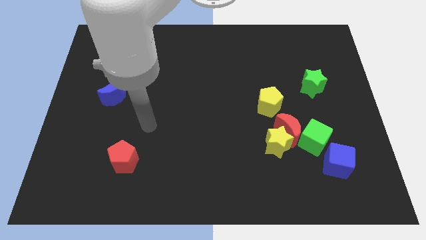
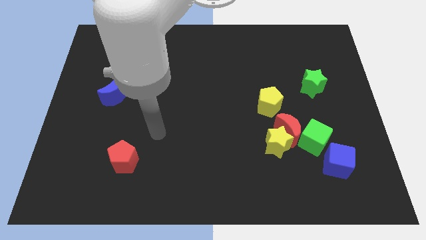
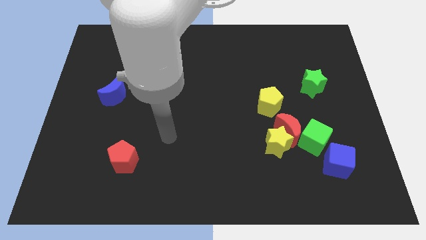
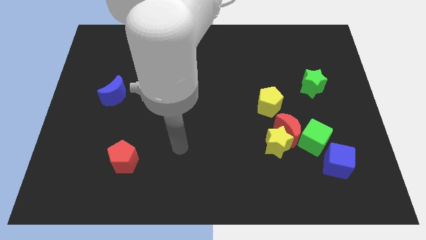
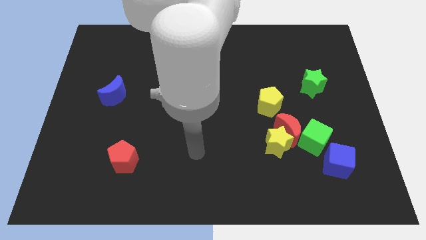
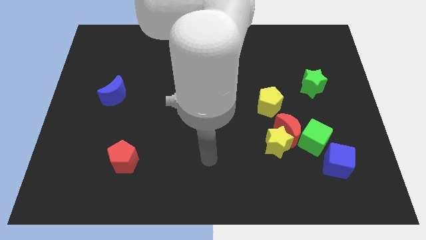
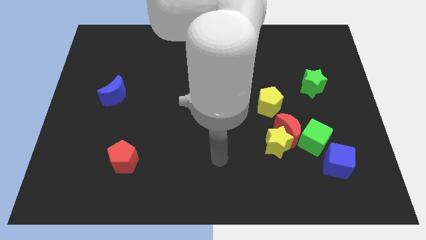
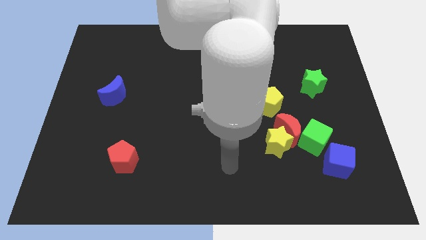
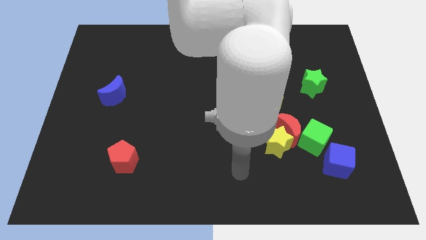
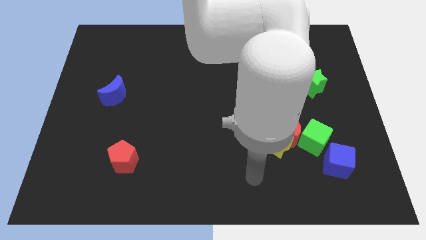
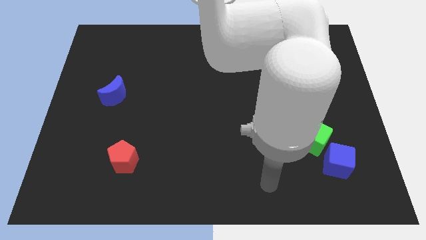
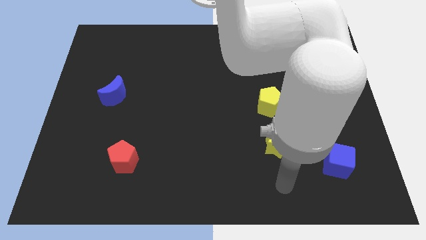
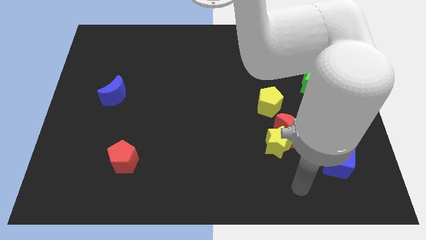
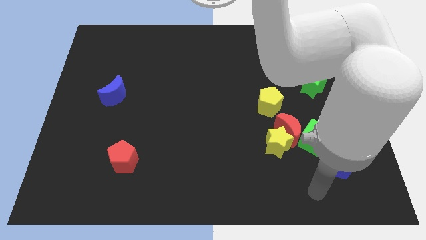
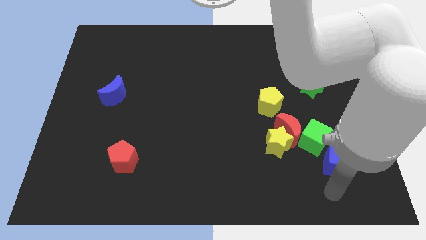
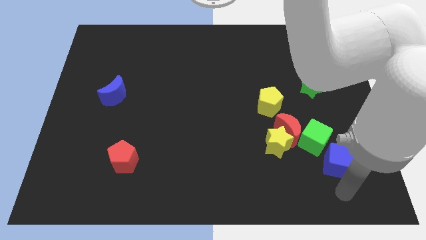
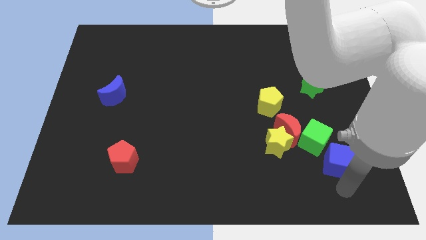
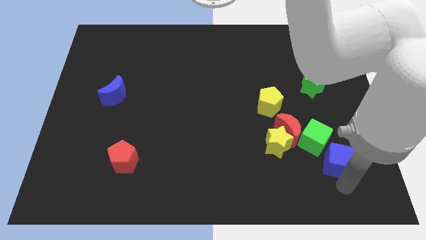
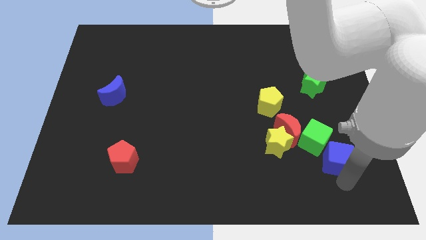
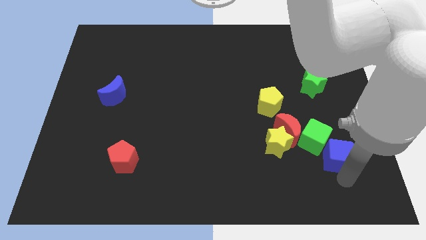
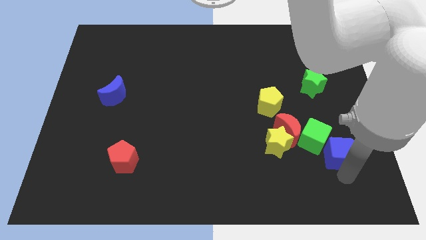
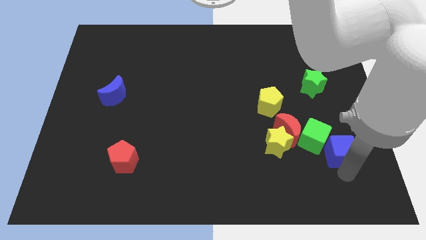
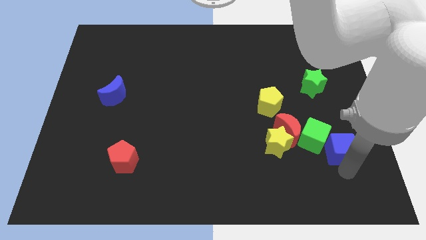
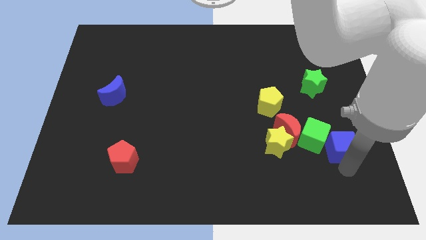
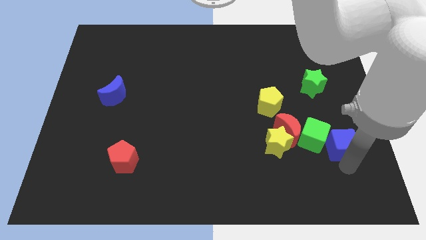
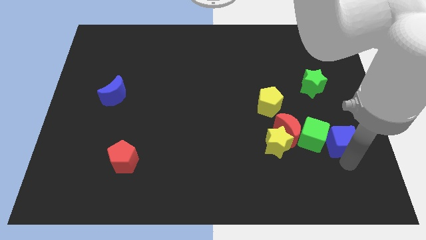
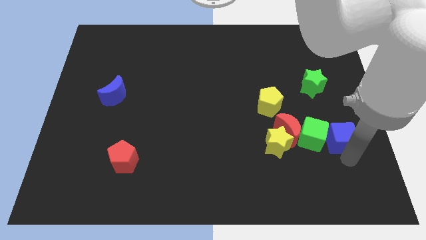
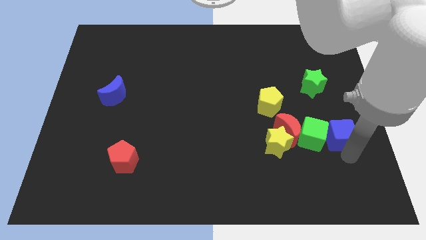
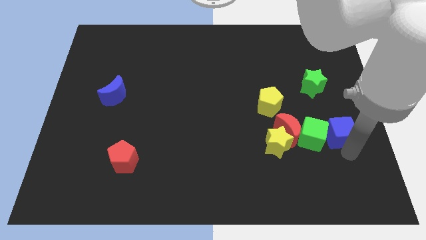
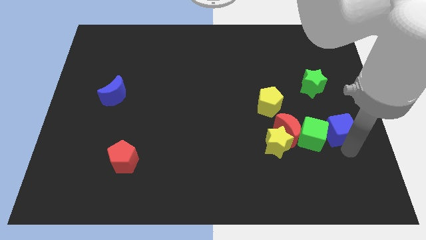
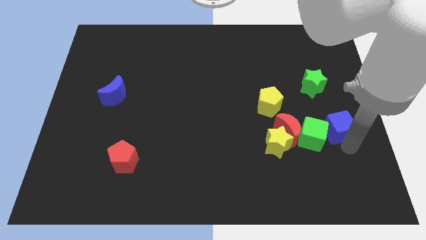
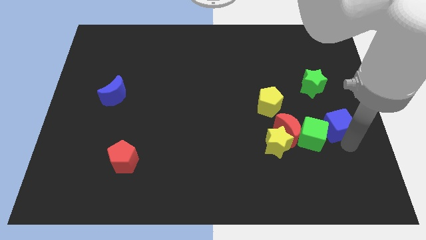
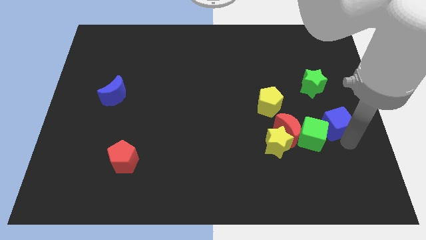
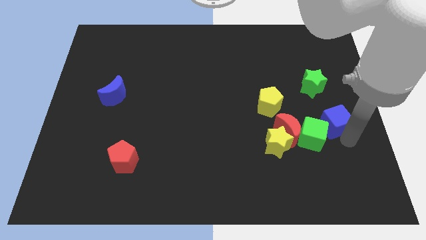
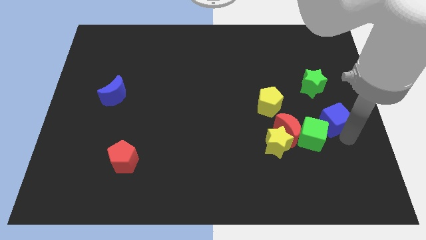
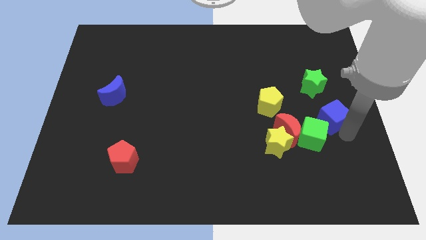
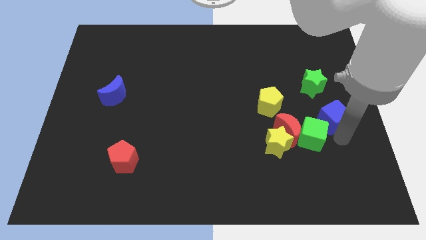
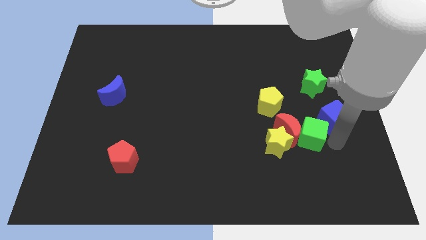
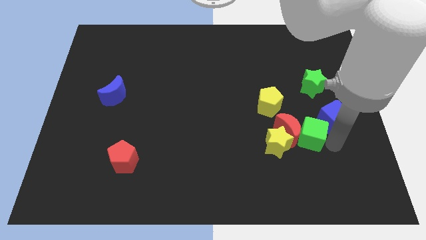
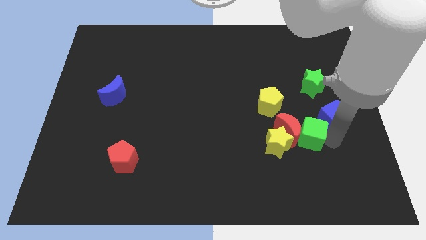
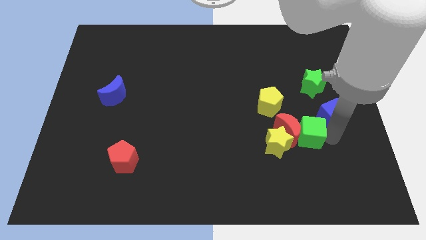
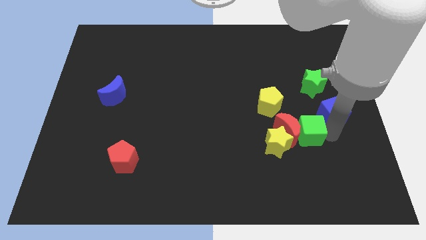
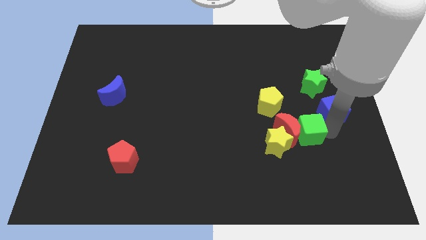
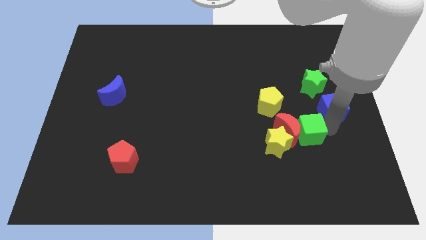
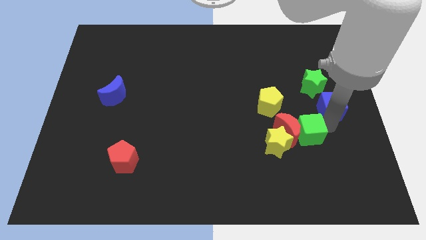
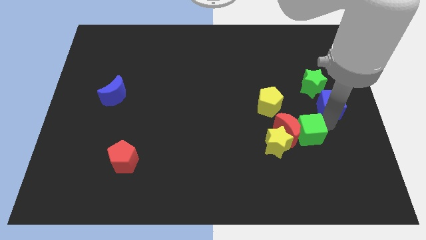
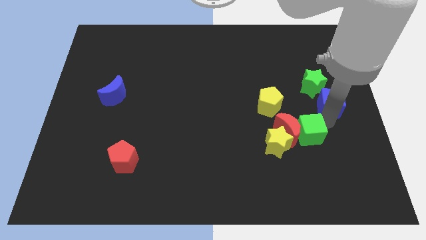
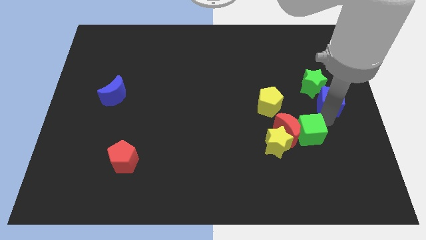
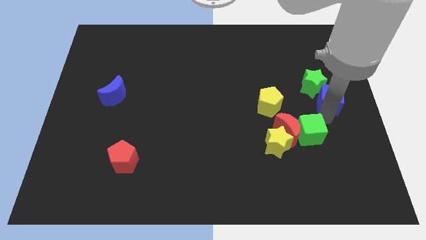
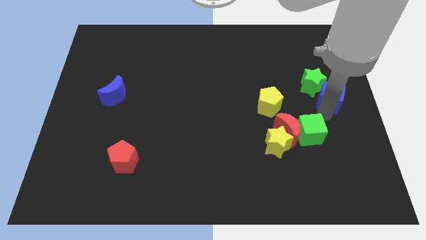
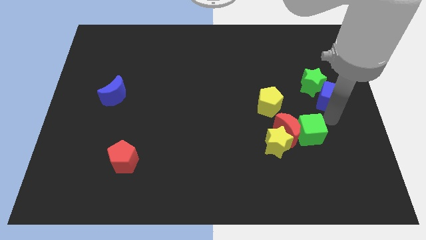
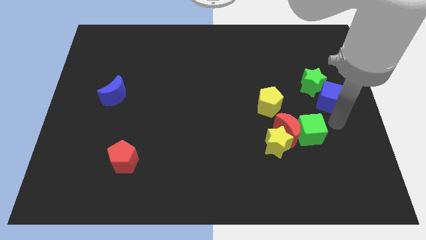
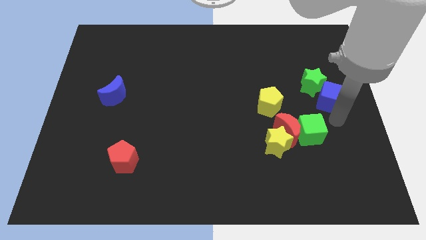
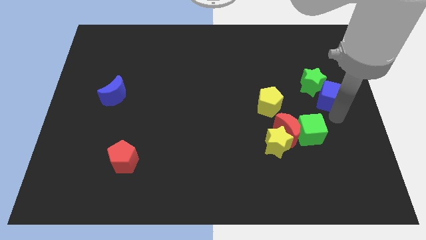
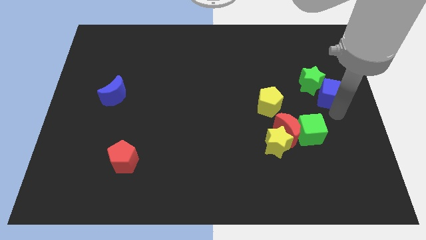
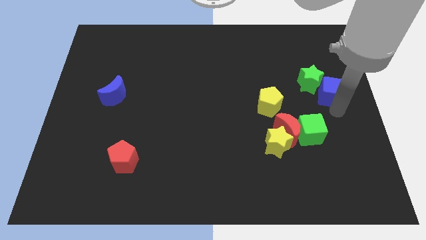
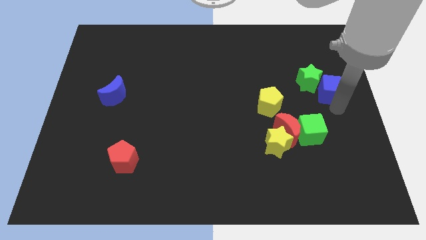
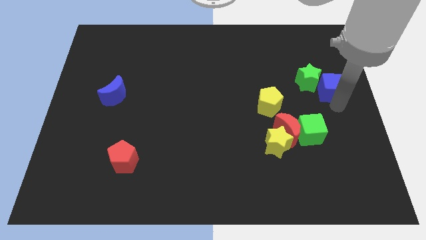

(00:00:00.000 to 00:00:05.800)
slide the blue cube upwards

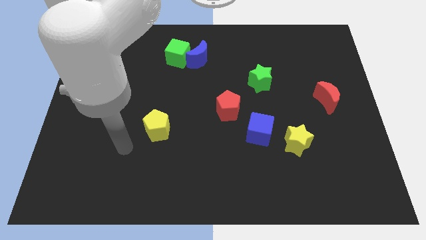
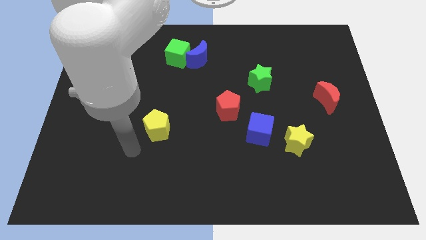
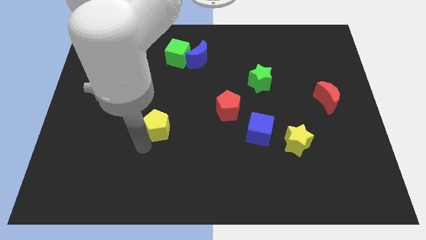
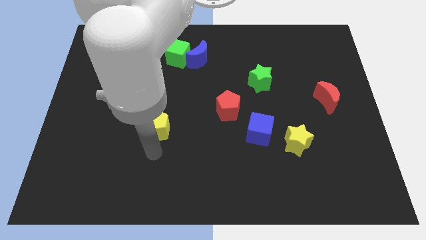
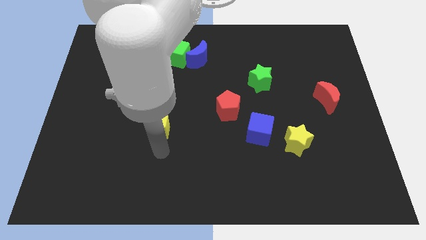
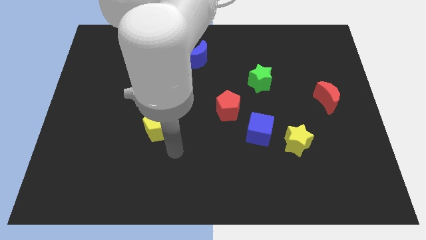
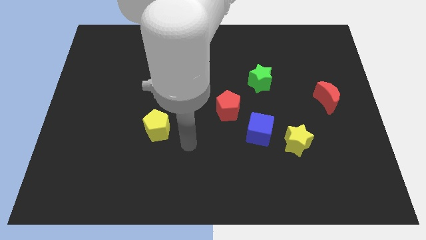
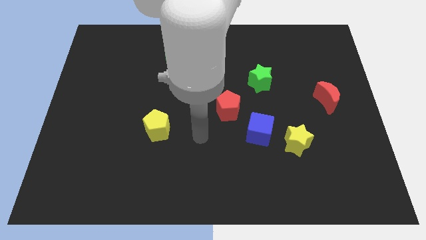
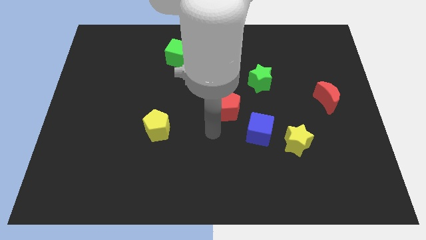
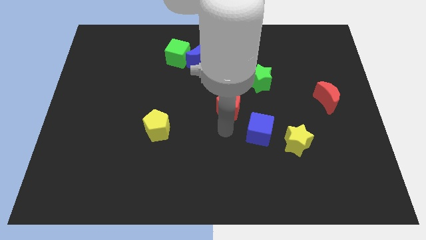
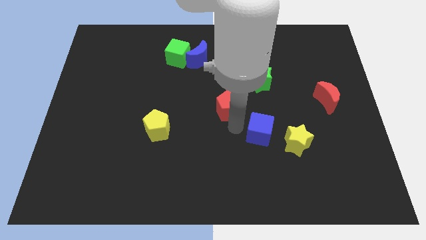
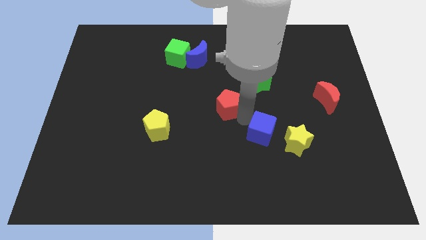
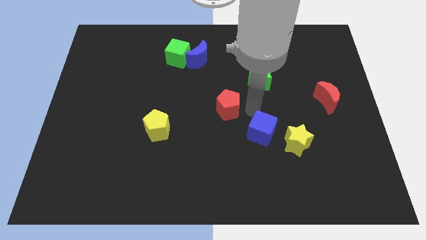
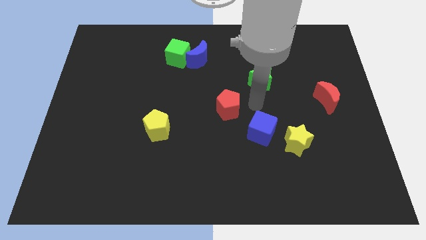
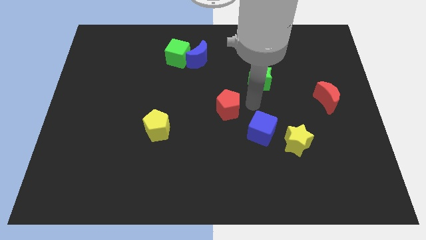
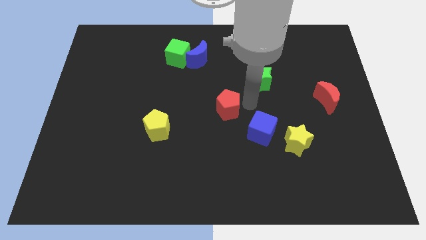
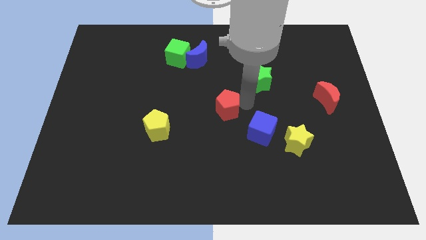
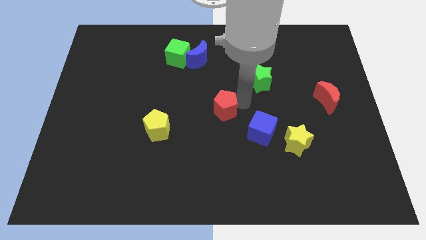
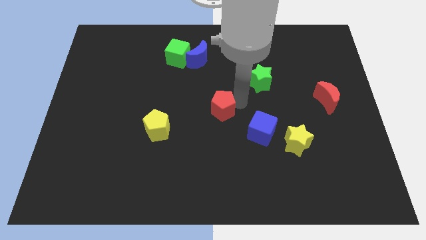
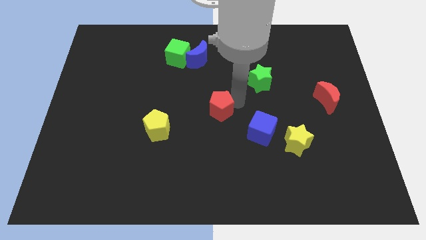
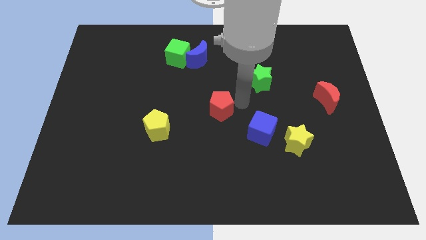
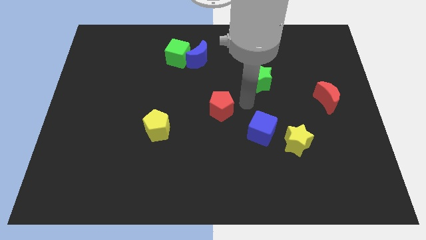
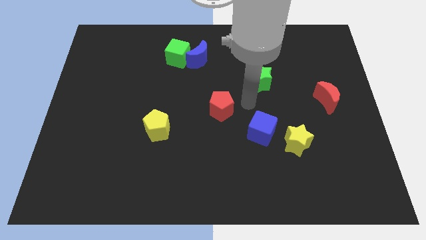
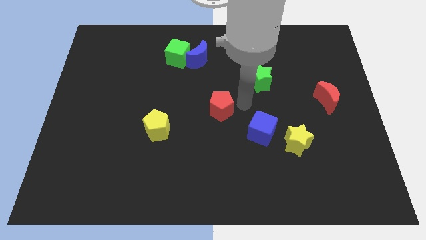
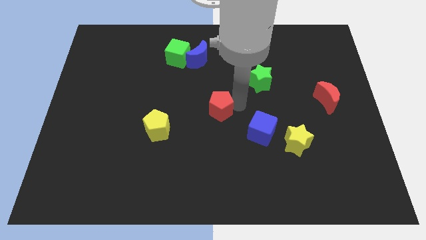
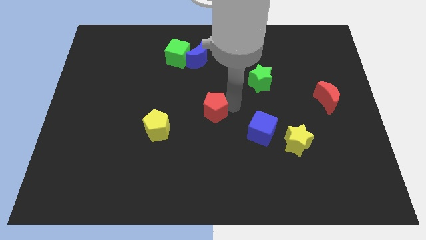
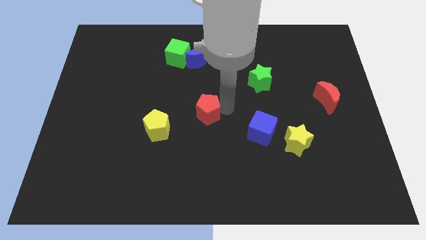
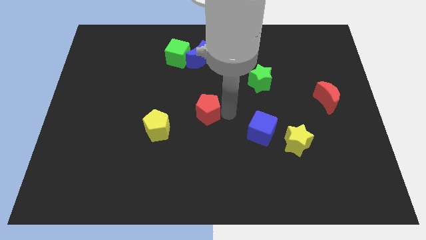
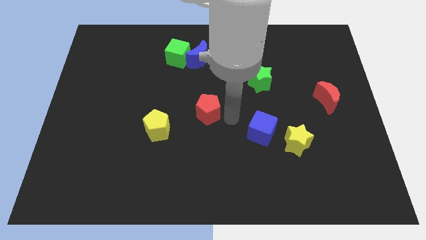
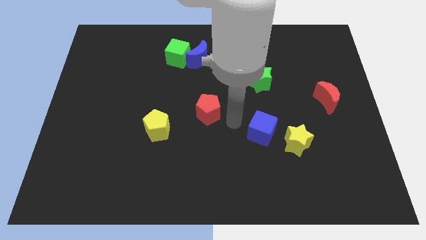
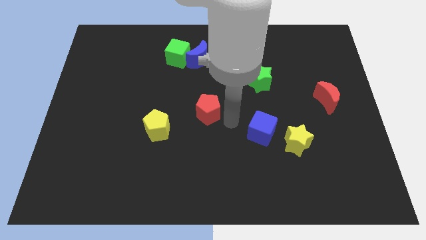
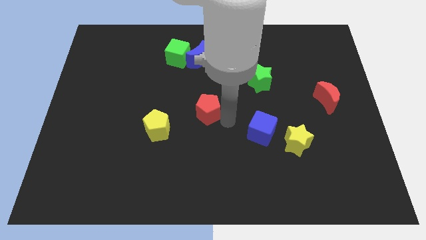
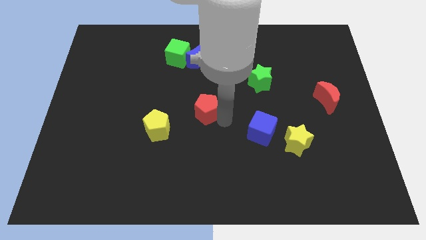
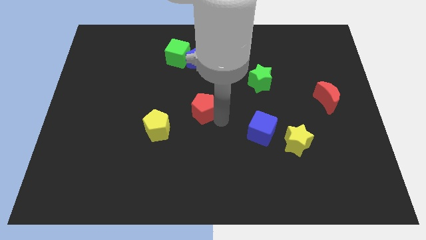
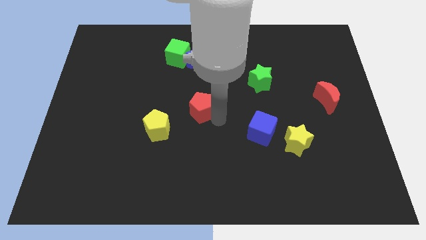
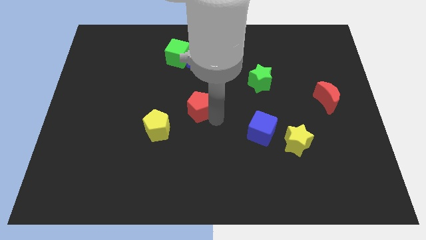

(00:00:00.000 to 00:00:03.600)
slightly move the red pentagon to the left
